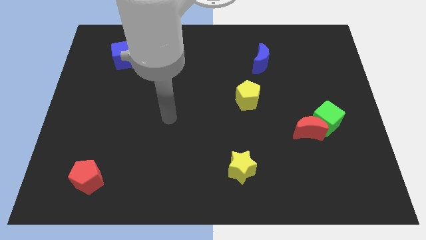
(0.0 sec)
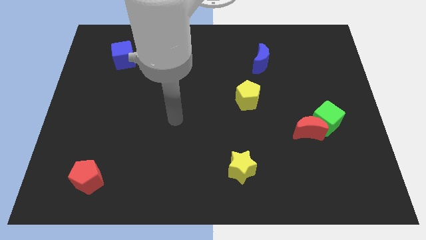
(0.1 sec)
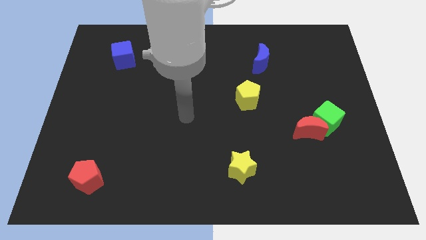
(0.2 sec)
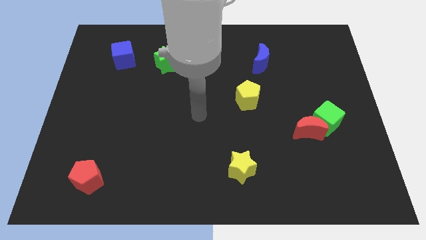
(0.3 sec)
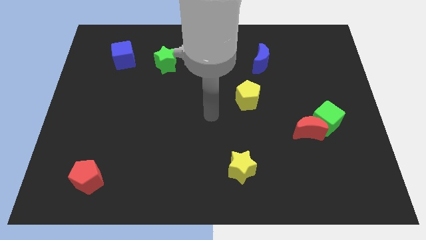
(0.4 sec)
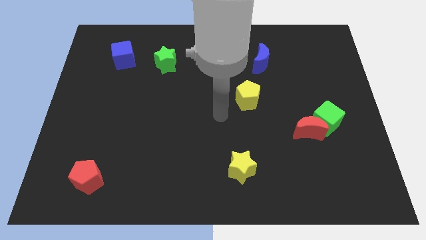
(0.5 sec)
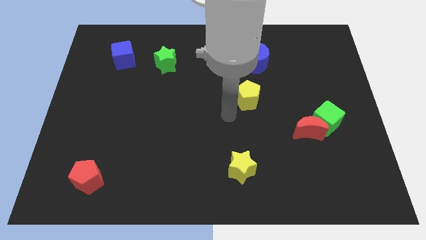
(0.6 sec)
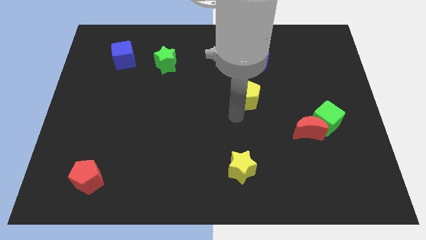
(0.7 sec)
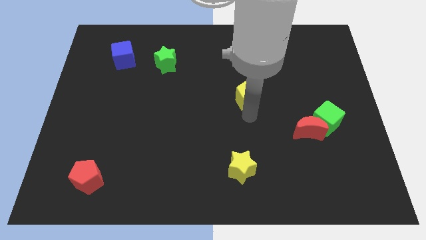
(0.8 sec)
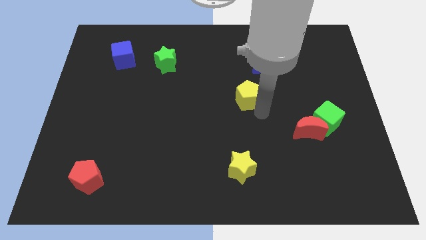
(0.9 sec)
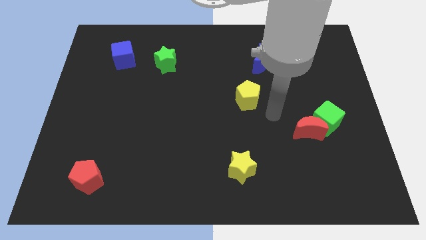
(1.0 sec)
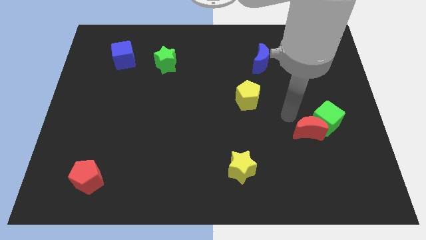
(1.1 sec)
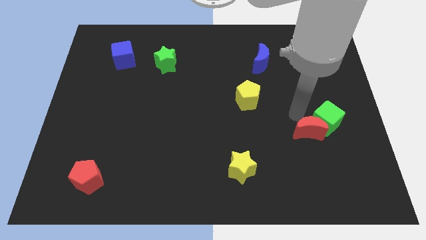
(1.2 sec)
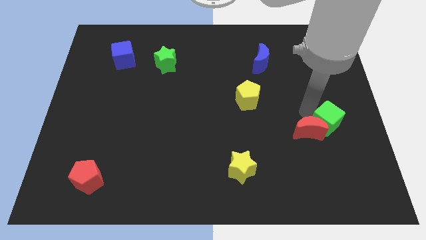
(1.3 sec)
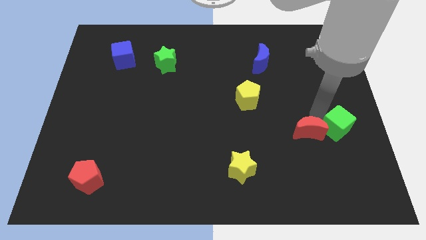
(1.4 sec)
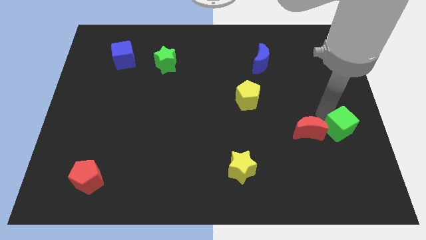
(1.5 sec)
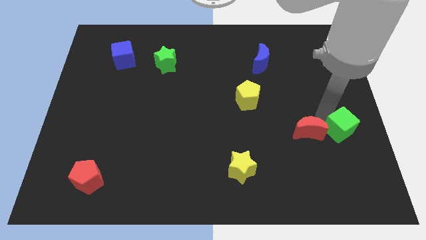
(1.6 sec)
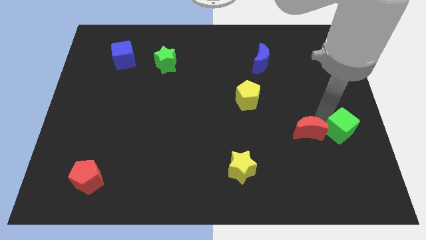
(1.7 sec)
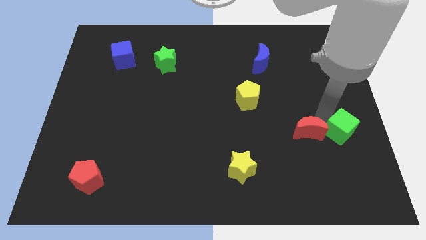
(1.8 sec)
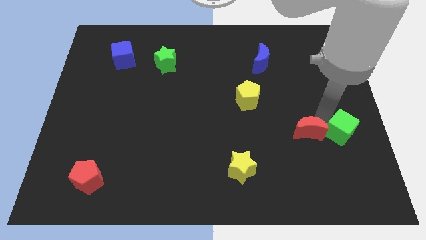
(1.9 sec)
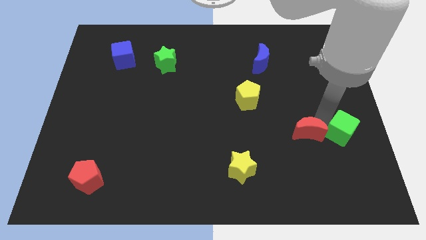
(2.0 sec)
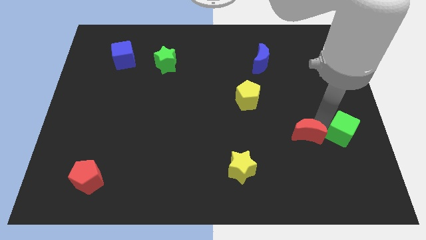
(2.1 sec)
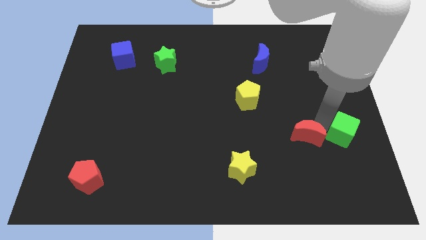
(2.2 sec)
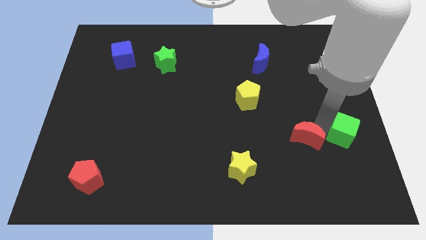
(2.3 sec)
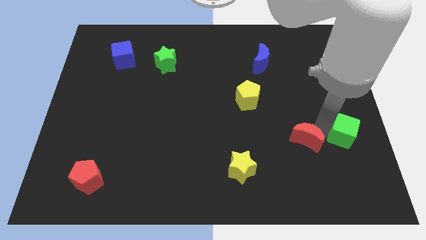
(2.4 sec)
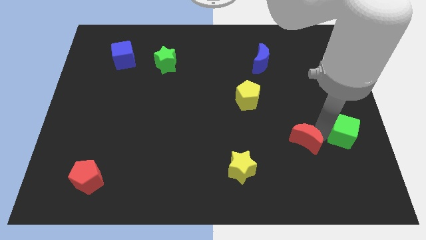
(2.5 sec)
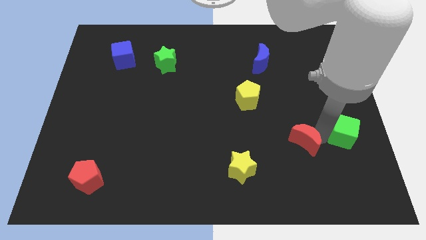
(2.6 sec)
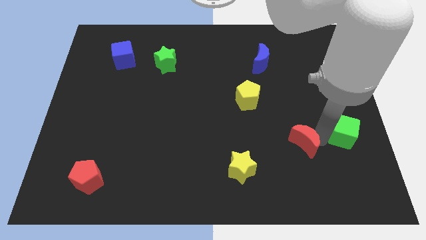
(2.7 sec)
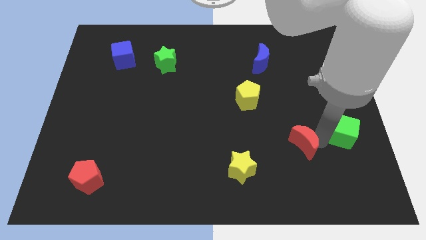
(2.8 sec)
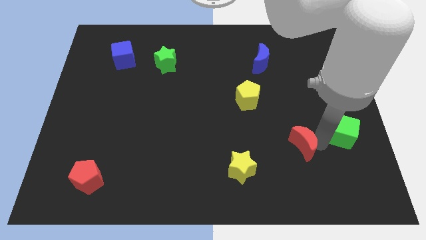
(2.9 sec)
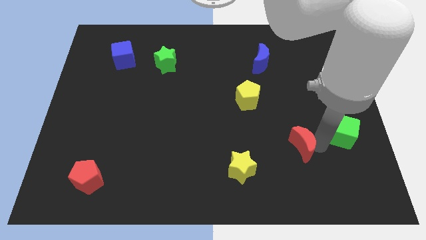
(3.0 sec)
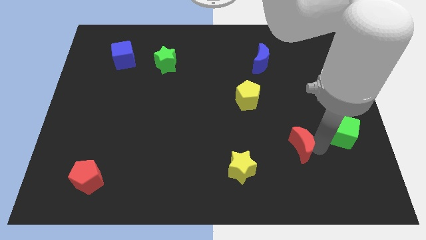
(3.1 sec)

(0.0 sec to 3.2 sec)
move the red moon away from the green cube

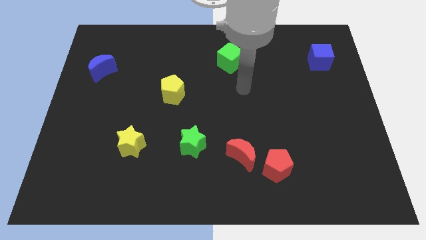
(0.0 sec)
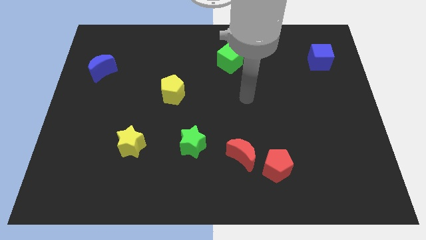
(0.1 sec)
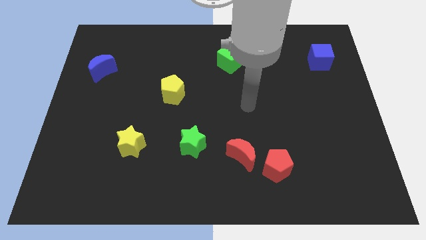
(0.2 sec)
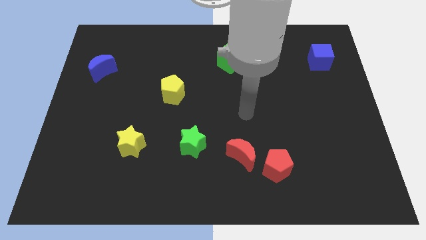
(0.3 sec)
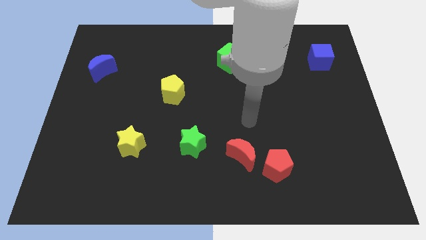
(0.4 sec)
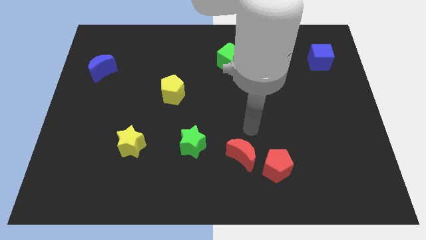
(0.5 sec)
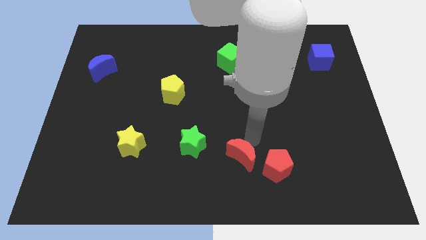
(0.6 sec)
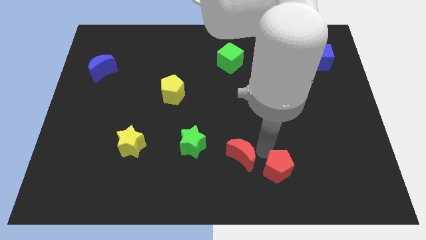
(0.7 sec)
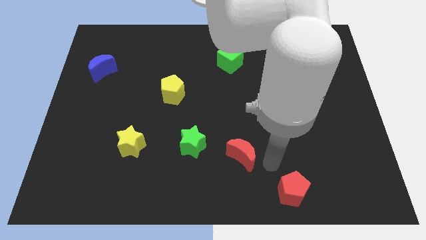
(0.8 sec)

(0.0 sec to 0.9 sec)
separate the red moon from the red pentagon

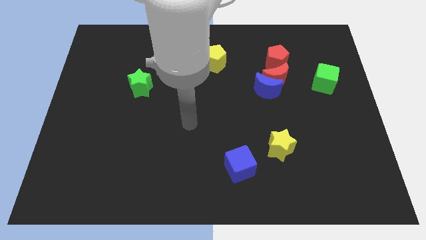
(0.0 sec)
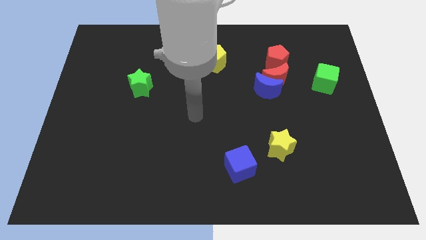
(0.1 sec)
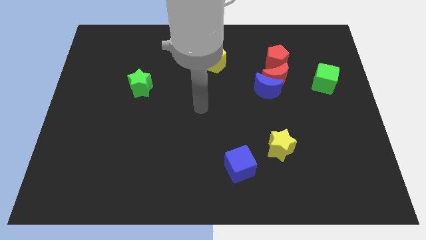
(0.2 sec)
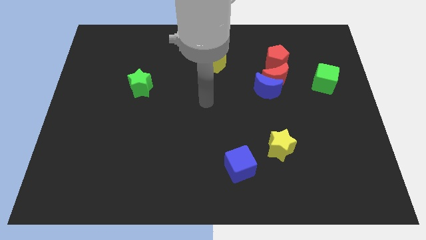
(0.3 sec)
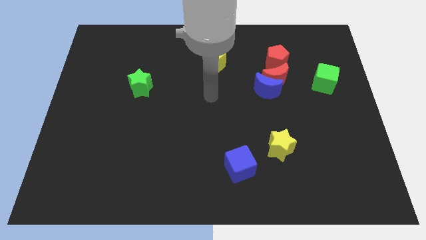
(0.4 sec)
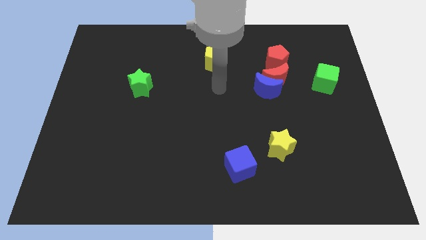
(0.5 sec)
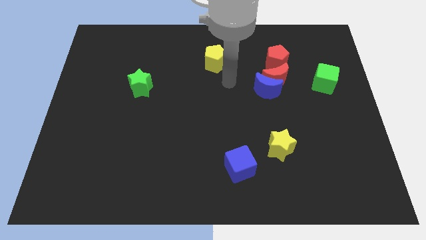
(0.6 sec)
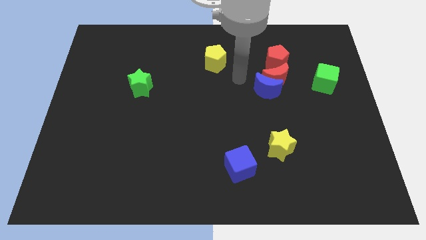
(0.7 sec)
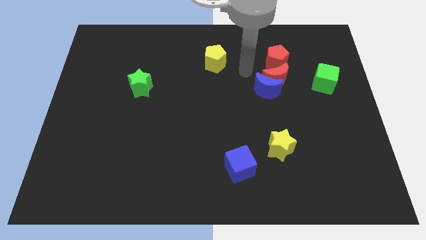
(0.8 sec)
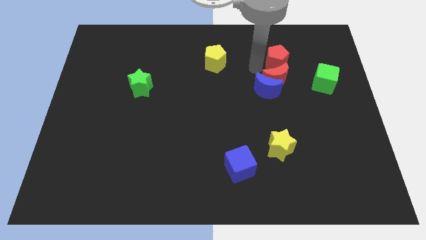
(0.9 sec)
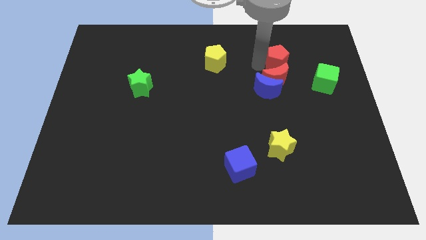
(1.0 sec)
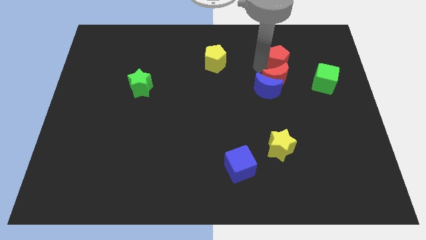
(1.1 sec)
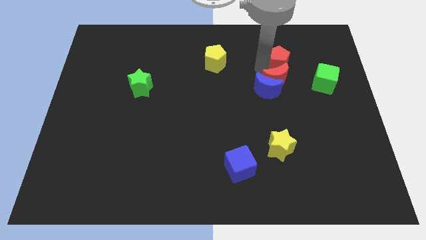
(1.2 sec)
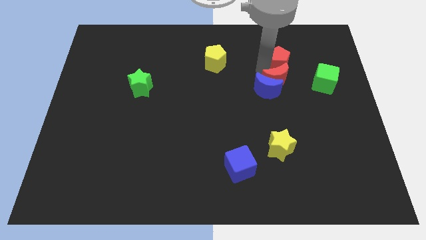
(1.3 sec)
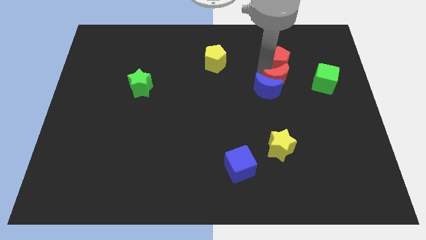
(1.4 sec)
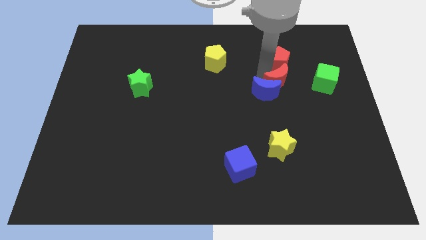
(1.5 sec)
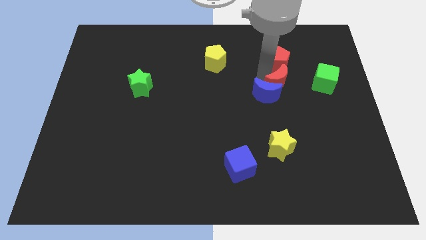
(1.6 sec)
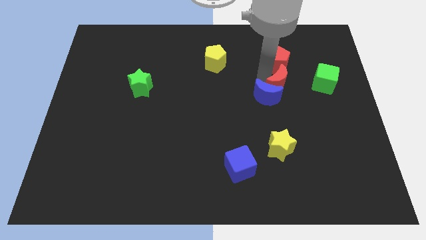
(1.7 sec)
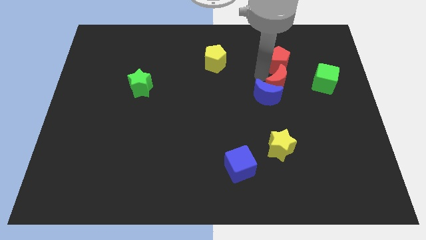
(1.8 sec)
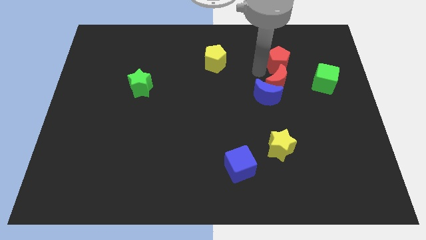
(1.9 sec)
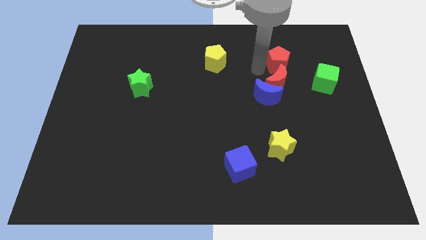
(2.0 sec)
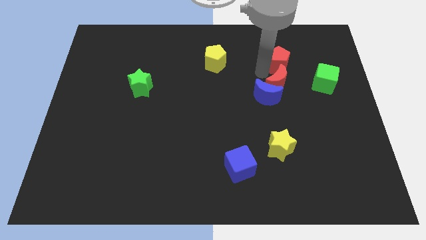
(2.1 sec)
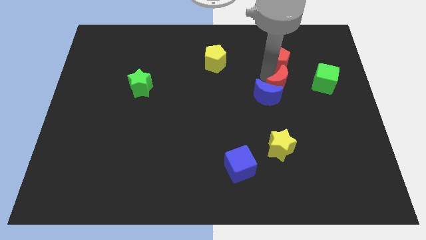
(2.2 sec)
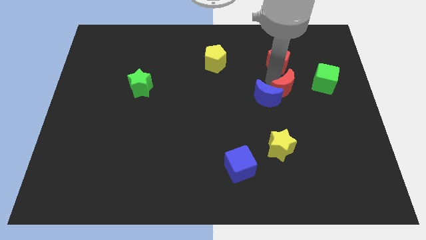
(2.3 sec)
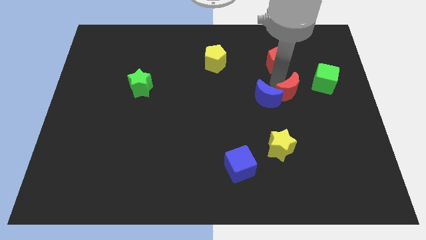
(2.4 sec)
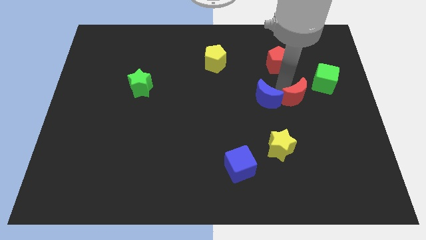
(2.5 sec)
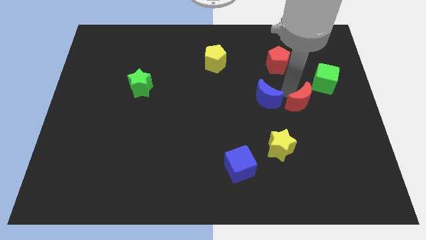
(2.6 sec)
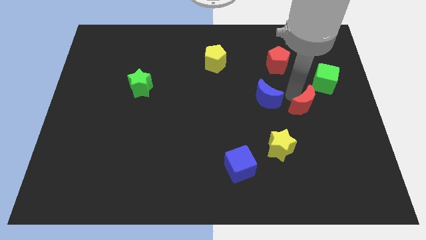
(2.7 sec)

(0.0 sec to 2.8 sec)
pull the red moon apart from the blue moon and red pentagon

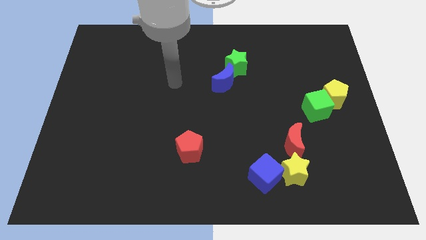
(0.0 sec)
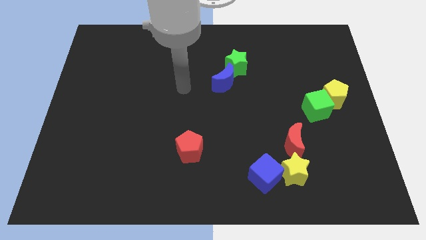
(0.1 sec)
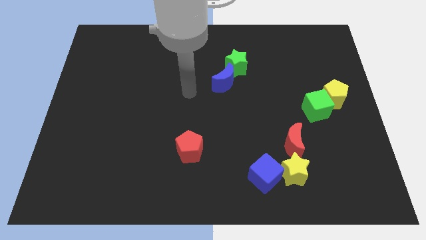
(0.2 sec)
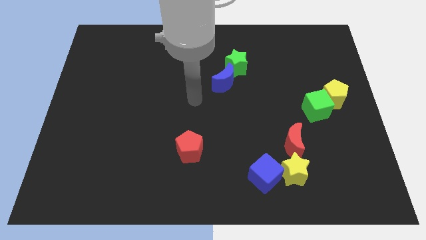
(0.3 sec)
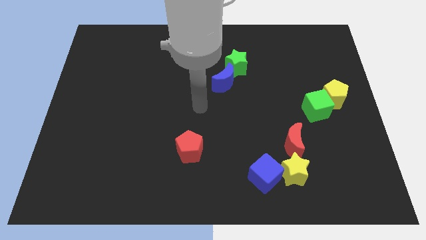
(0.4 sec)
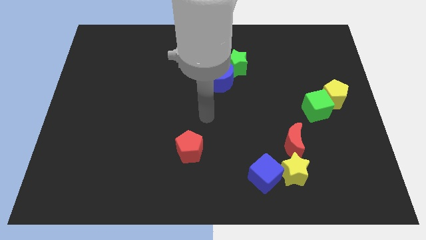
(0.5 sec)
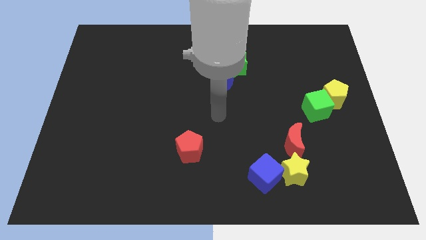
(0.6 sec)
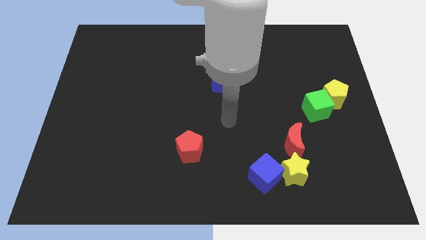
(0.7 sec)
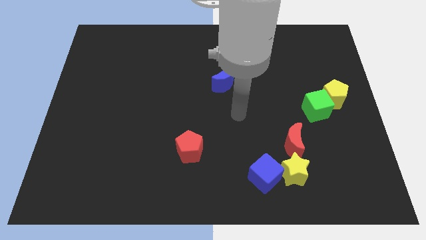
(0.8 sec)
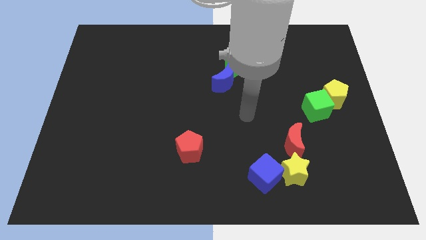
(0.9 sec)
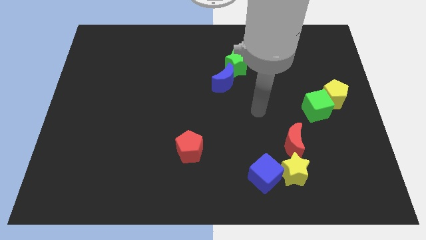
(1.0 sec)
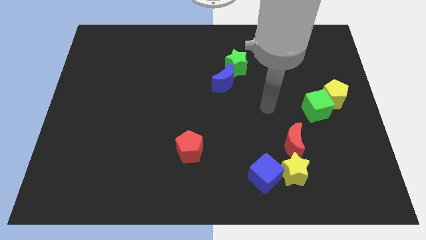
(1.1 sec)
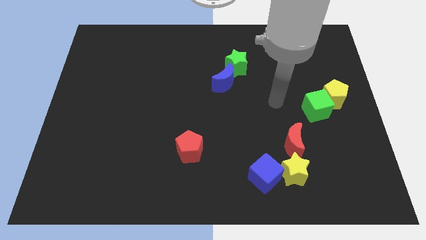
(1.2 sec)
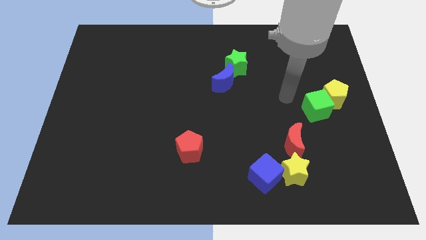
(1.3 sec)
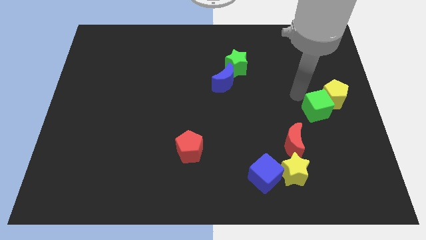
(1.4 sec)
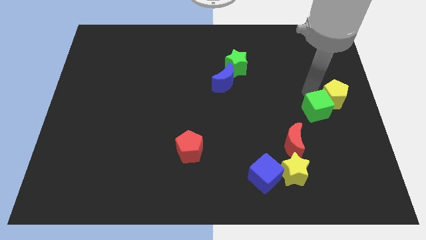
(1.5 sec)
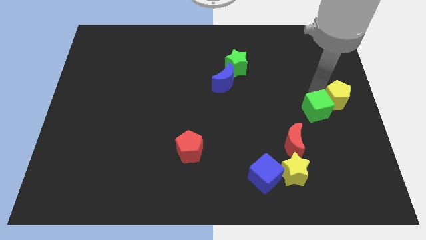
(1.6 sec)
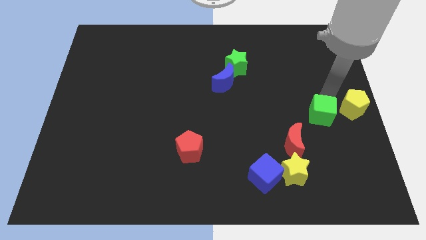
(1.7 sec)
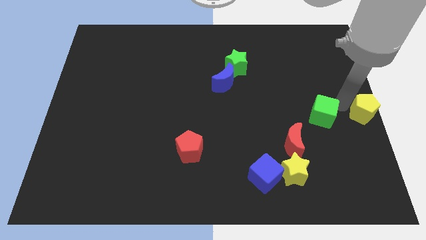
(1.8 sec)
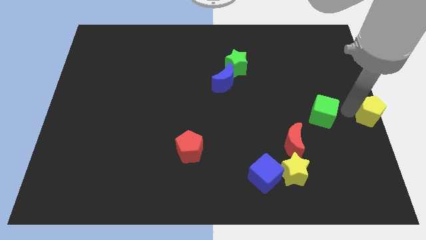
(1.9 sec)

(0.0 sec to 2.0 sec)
move the green cube away from the yellow pentagon

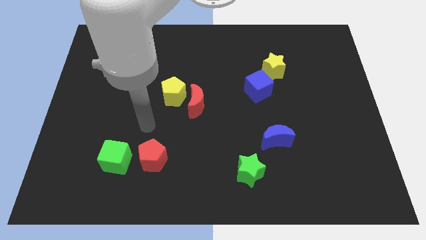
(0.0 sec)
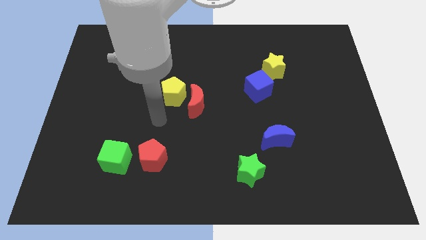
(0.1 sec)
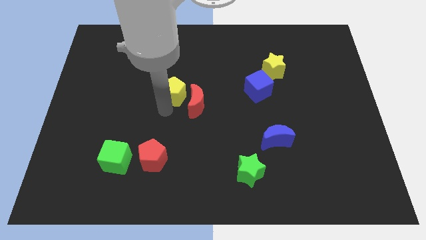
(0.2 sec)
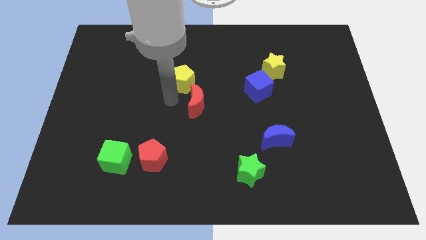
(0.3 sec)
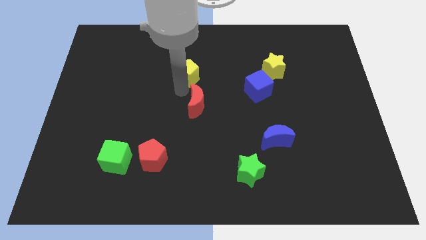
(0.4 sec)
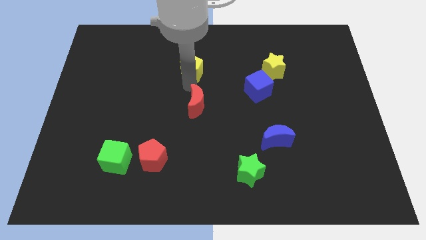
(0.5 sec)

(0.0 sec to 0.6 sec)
pull the red moon apart from the yellow pentagon
